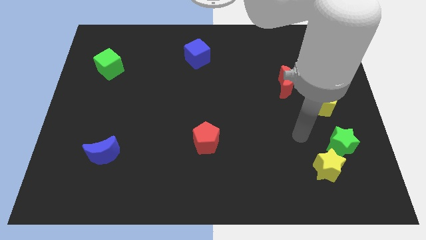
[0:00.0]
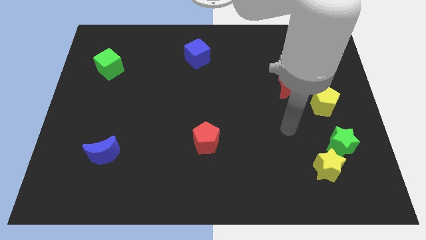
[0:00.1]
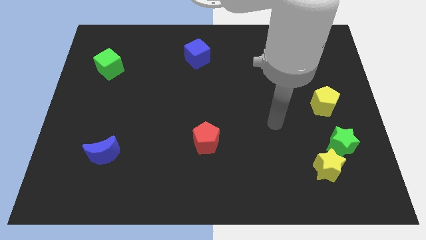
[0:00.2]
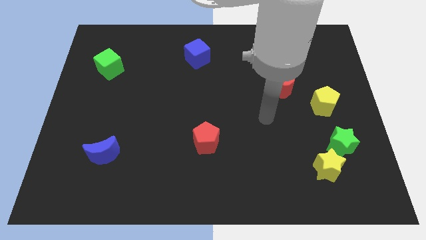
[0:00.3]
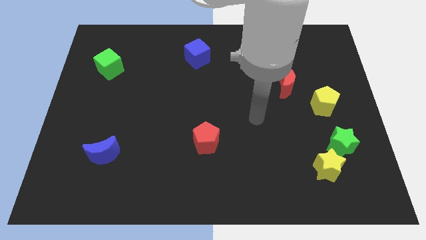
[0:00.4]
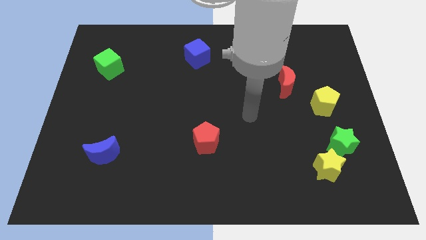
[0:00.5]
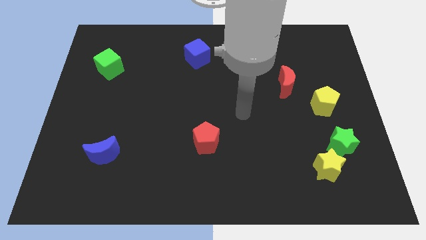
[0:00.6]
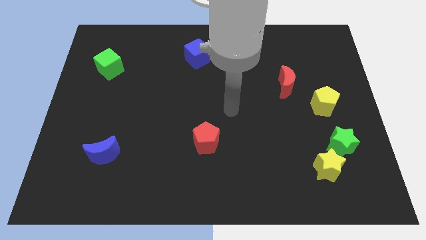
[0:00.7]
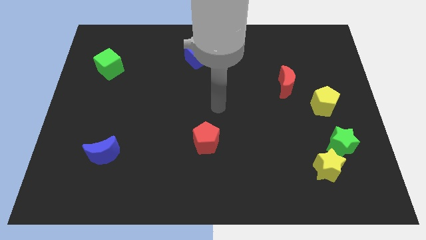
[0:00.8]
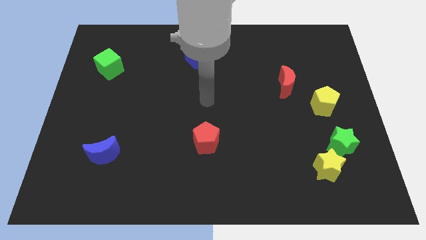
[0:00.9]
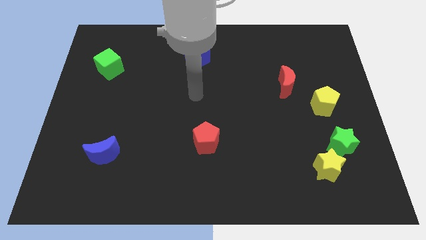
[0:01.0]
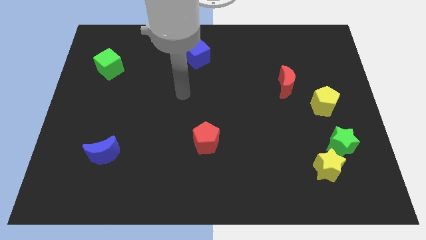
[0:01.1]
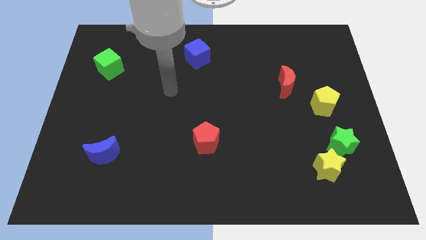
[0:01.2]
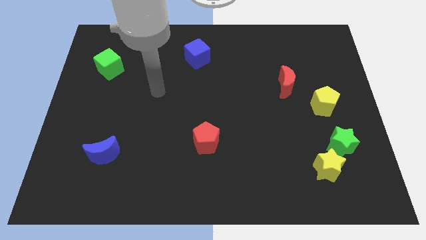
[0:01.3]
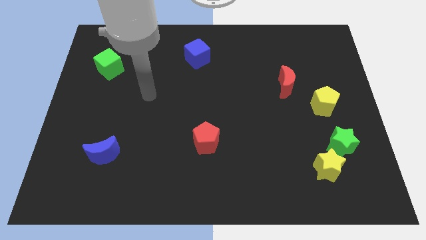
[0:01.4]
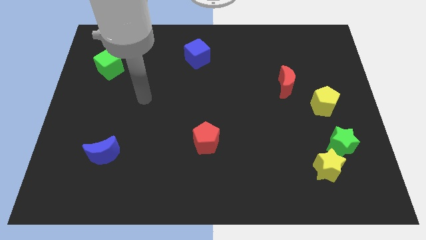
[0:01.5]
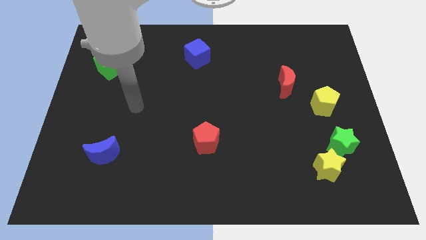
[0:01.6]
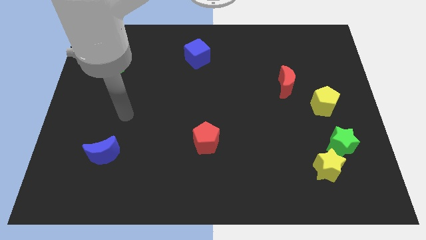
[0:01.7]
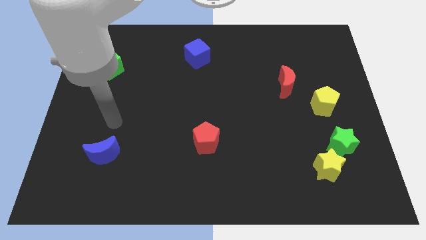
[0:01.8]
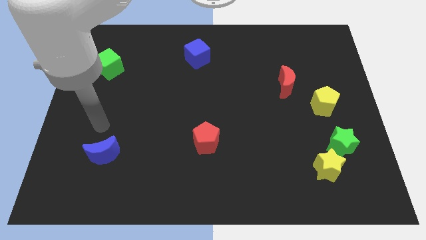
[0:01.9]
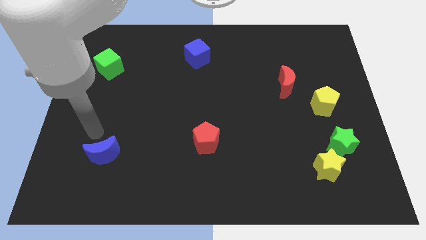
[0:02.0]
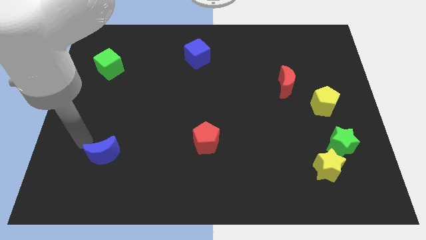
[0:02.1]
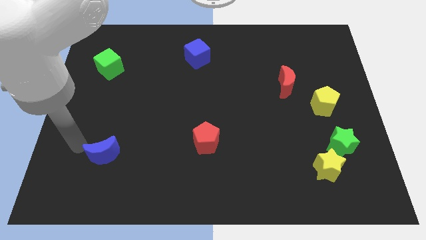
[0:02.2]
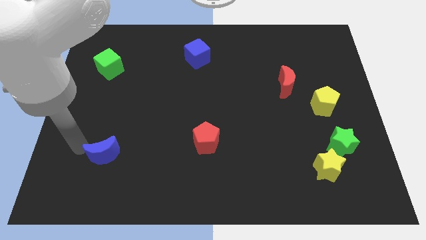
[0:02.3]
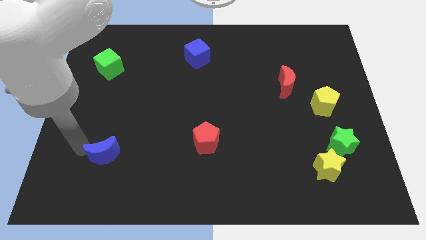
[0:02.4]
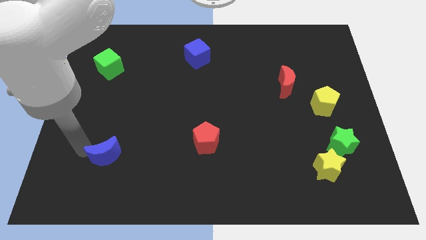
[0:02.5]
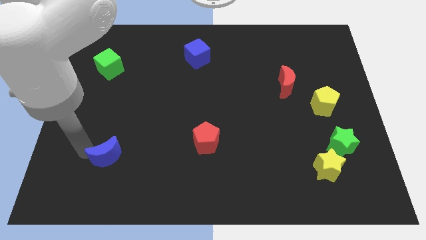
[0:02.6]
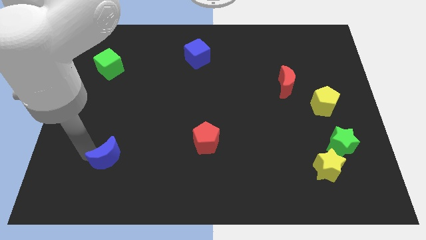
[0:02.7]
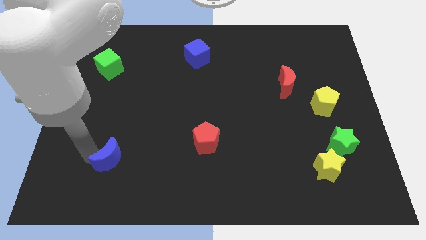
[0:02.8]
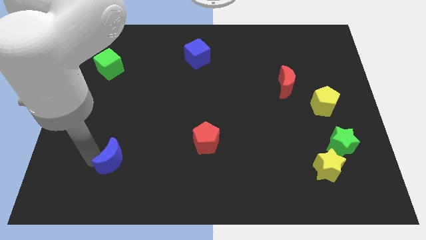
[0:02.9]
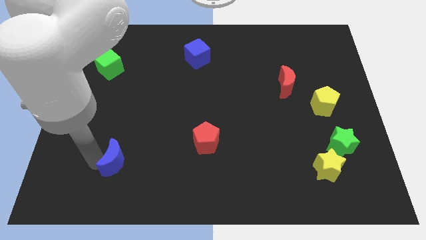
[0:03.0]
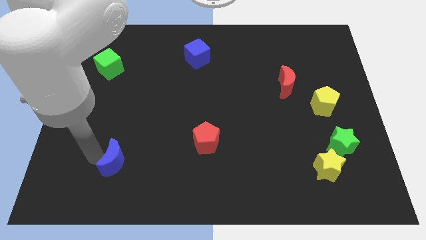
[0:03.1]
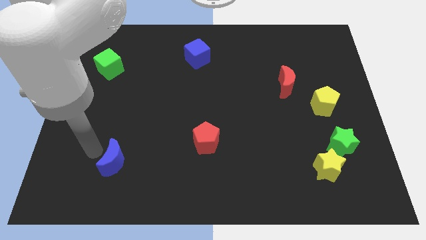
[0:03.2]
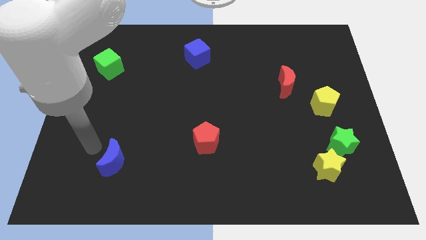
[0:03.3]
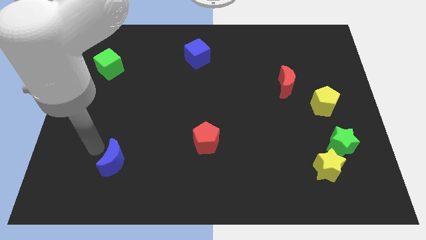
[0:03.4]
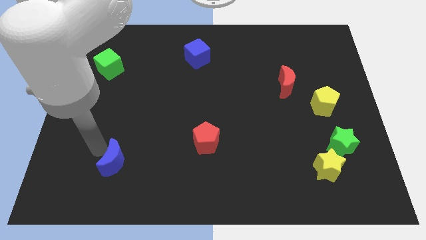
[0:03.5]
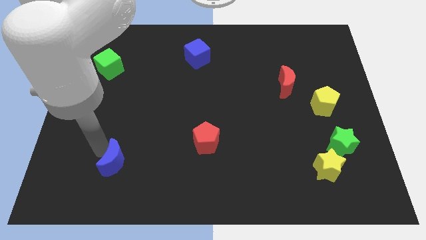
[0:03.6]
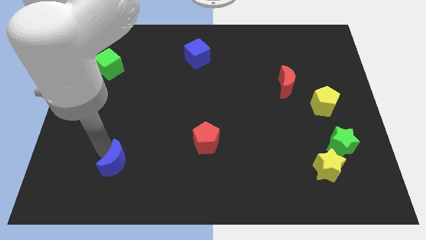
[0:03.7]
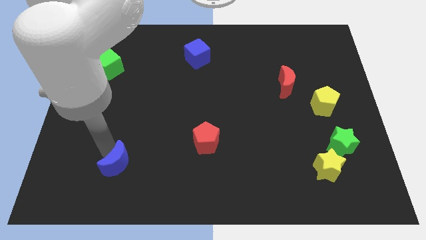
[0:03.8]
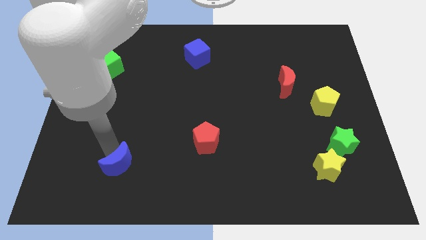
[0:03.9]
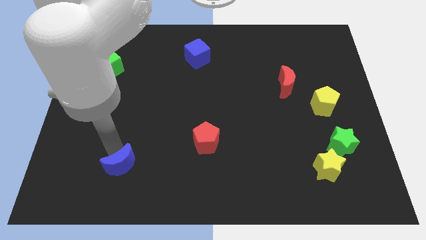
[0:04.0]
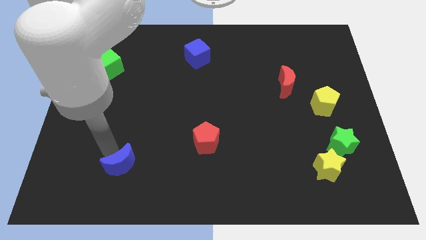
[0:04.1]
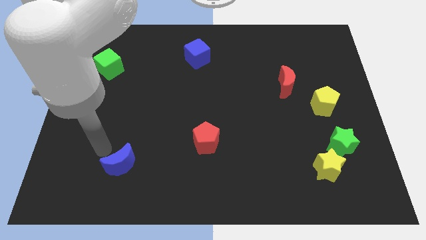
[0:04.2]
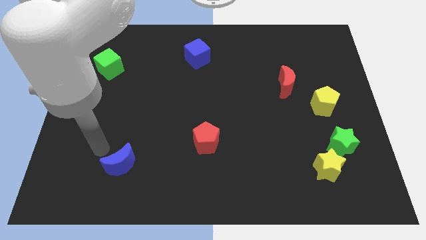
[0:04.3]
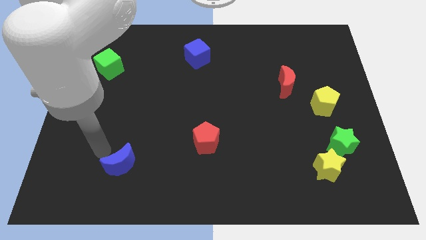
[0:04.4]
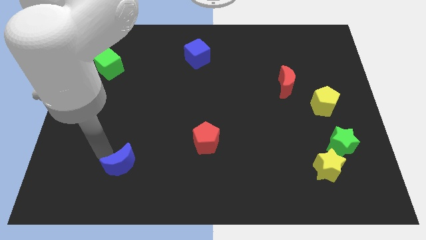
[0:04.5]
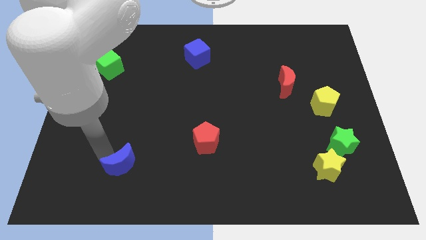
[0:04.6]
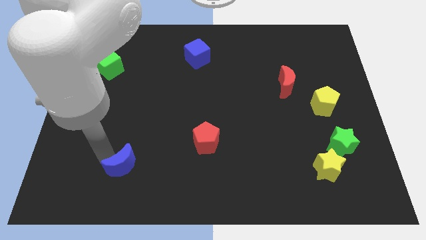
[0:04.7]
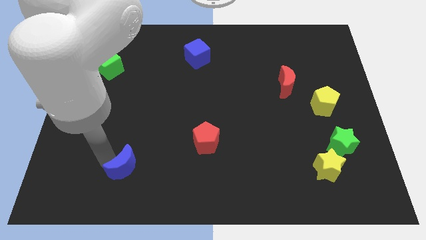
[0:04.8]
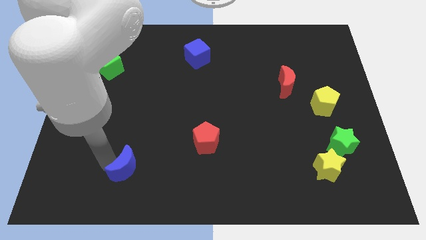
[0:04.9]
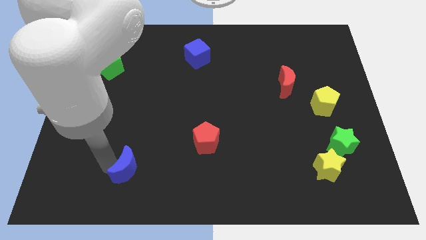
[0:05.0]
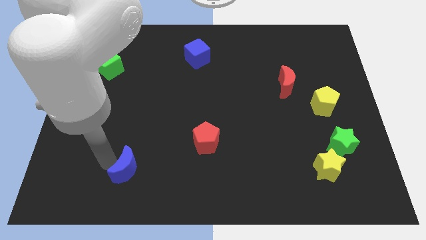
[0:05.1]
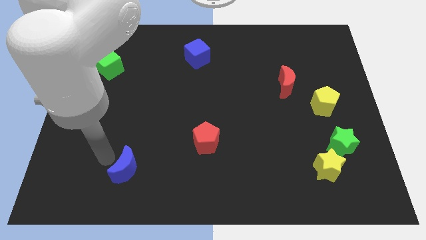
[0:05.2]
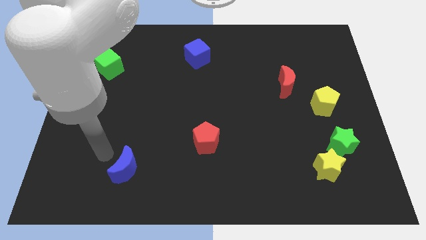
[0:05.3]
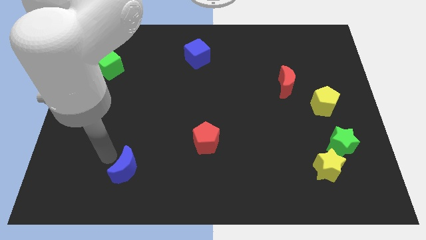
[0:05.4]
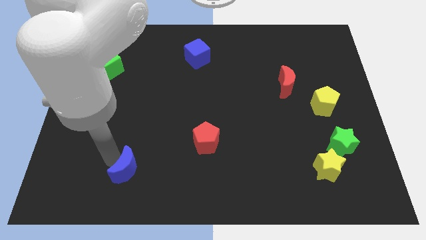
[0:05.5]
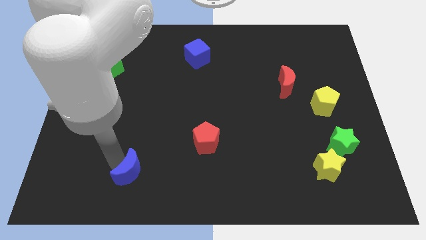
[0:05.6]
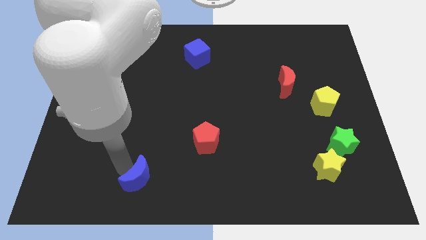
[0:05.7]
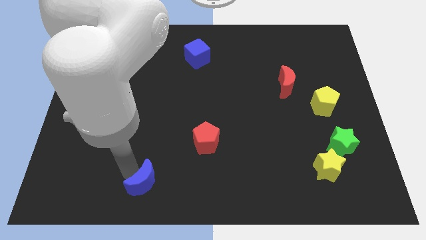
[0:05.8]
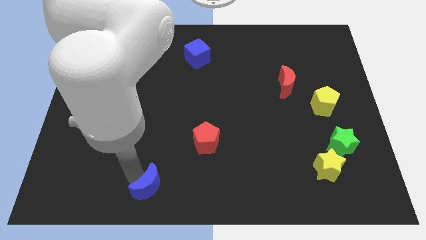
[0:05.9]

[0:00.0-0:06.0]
put the blue moon to the bottom side
